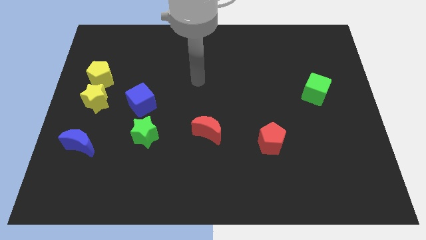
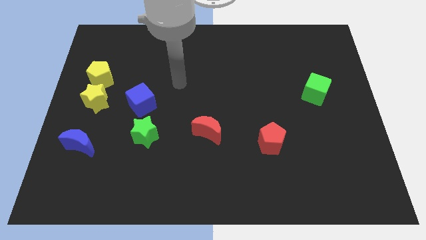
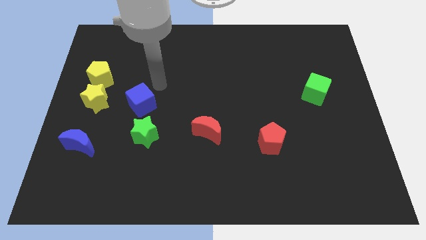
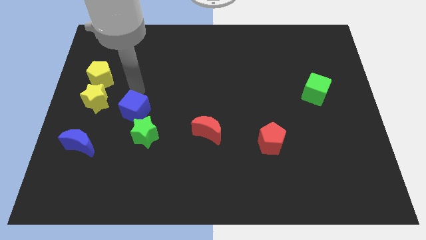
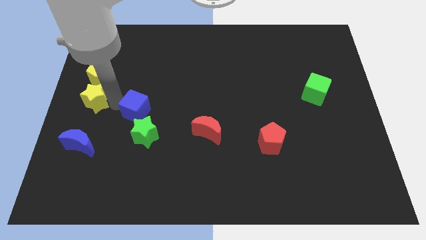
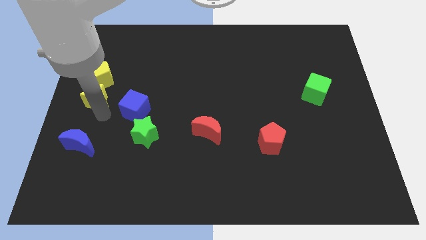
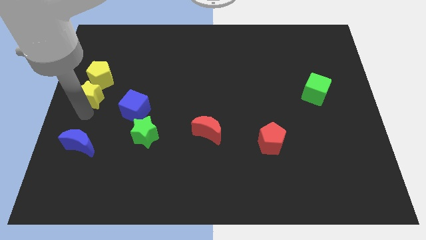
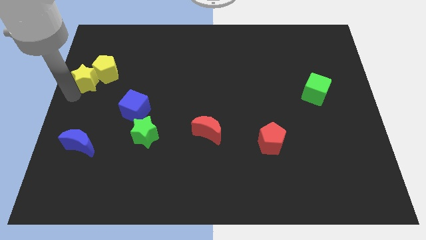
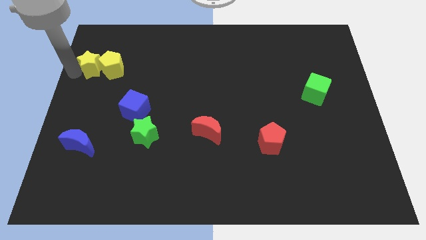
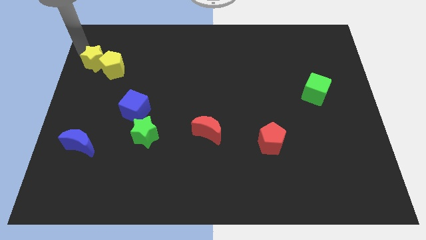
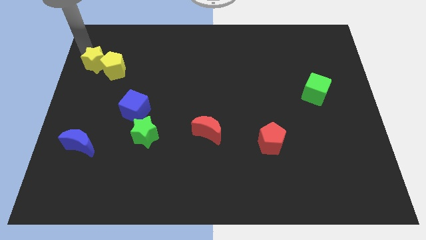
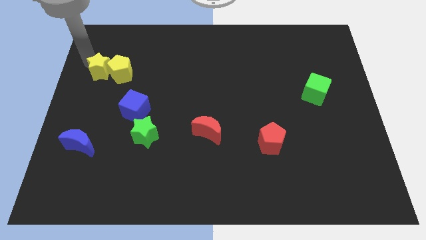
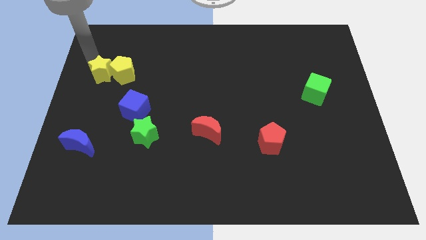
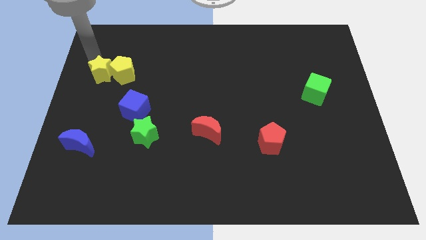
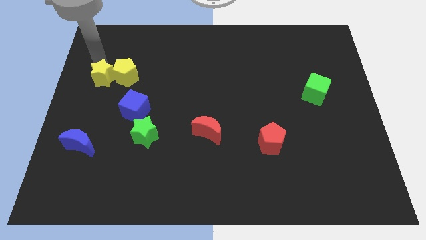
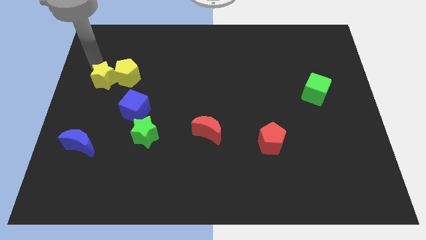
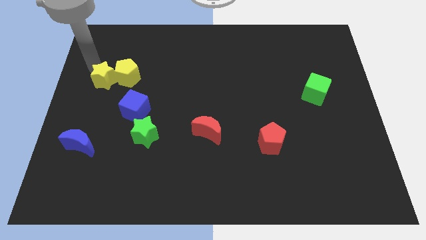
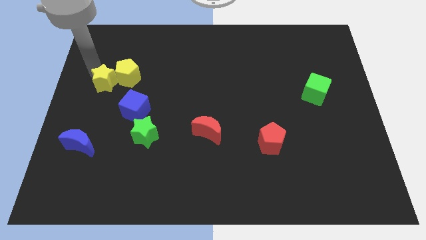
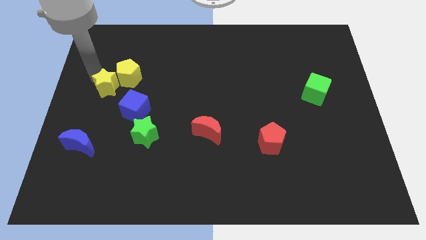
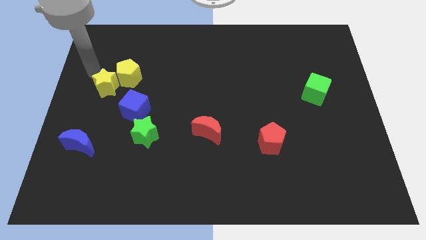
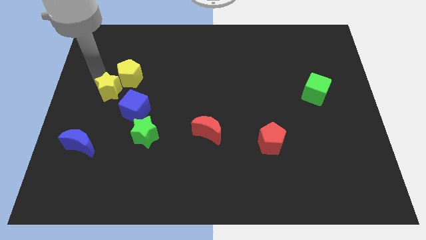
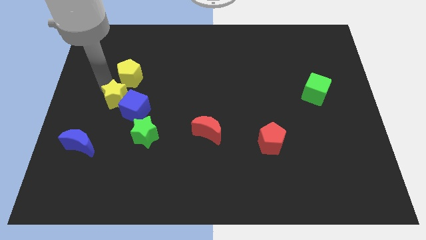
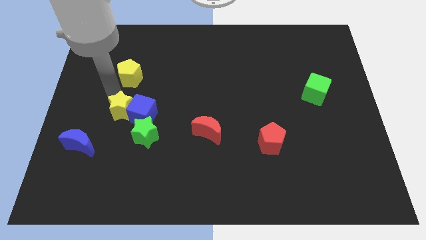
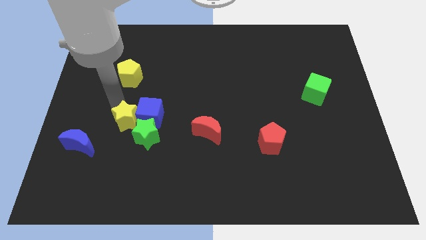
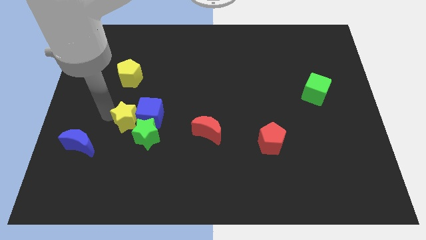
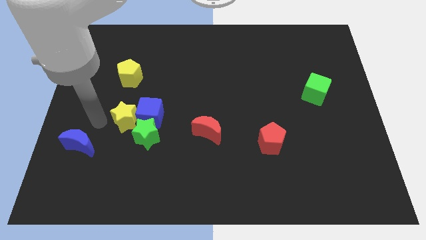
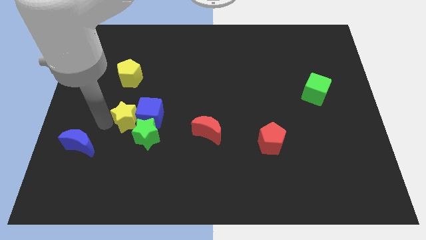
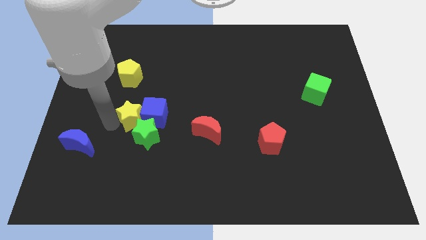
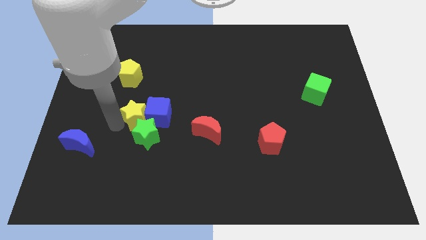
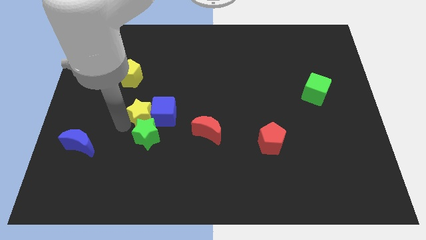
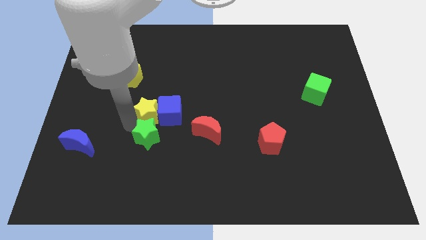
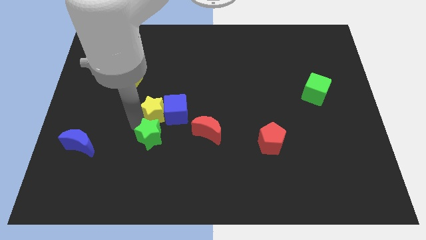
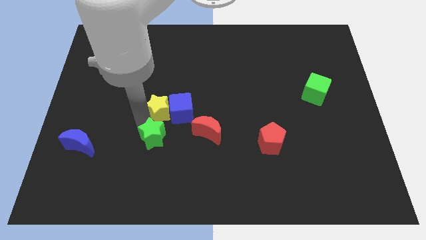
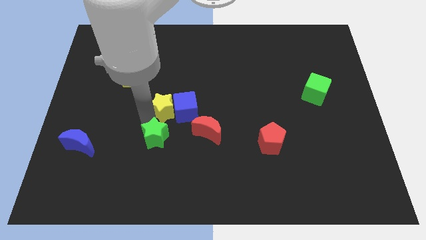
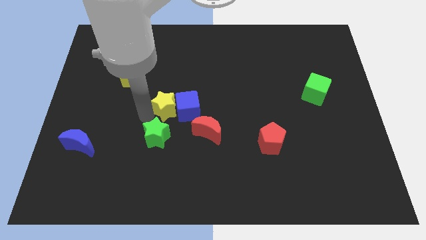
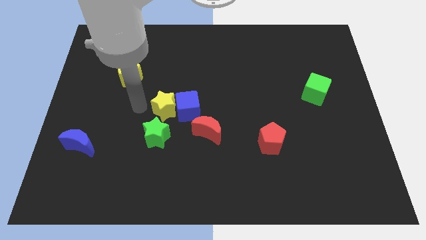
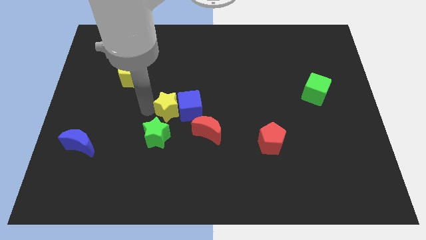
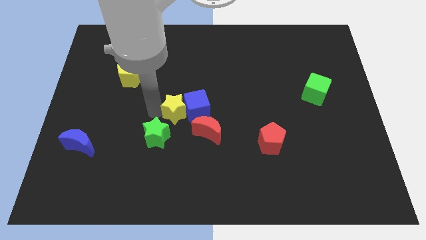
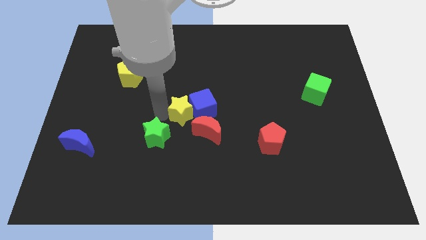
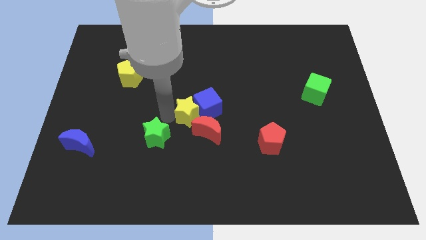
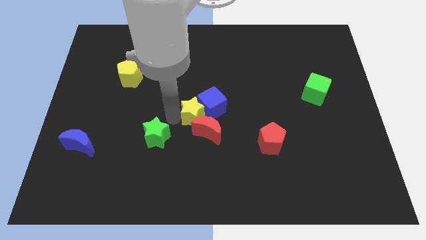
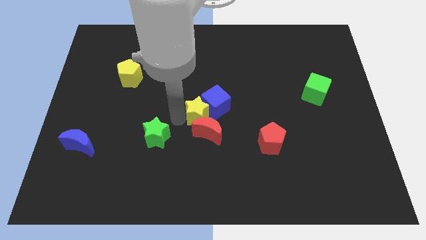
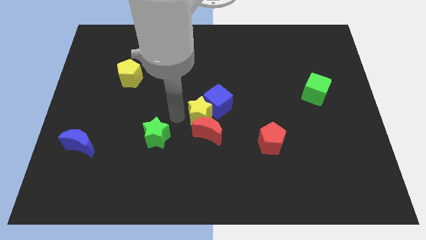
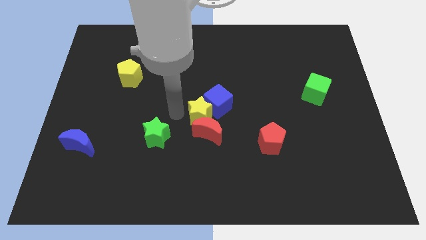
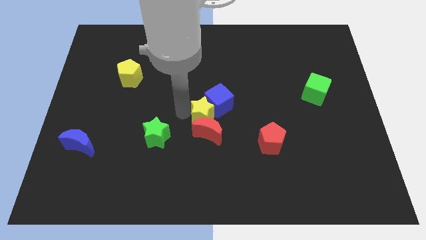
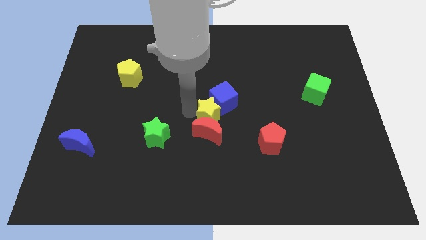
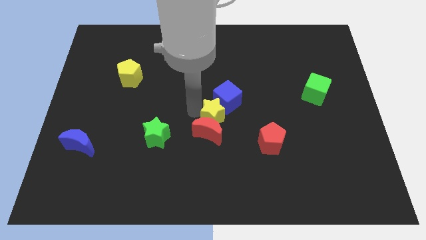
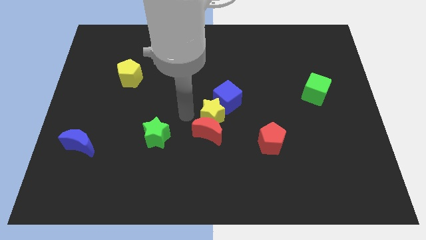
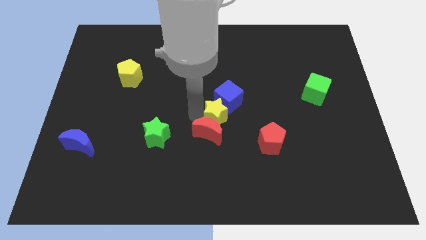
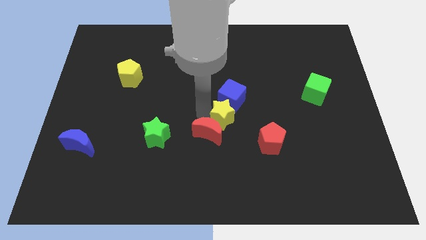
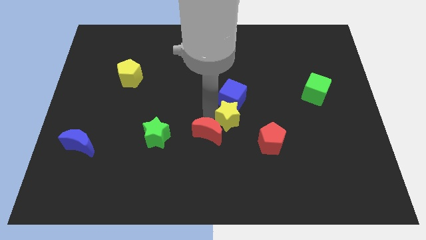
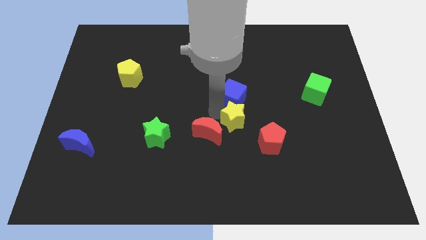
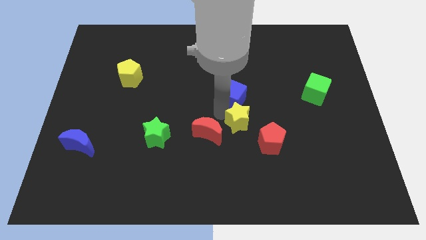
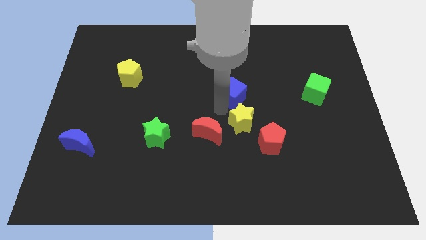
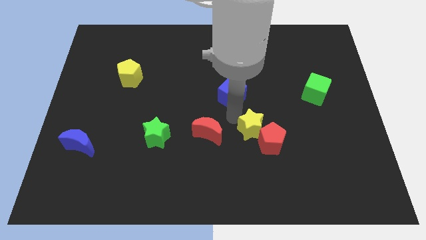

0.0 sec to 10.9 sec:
slide the yellow star to the red pentagon

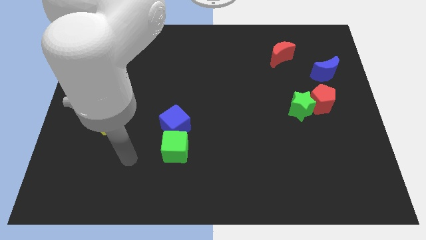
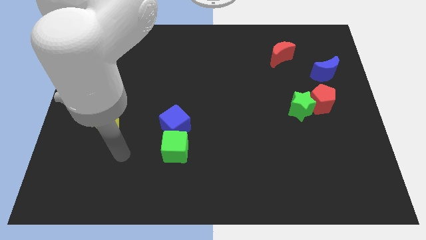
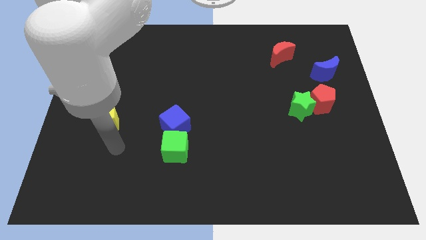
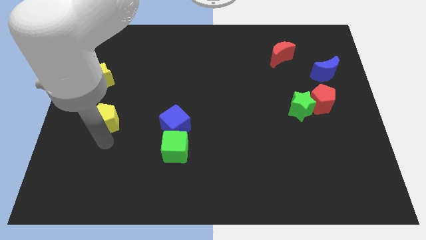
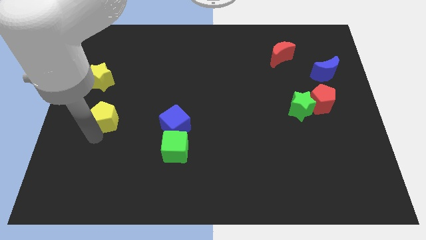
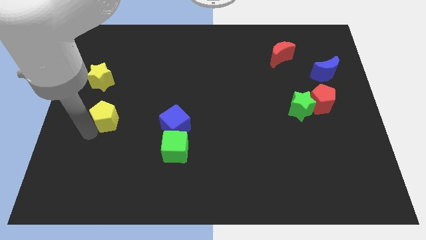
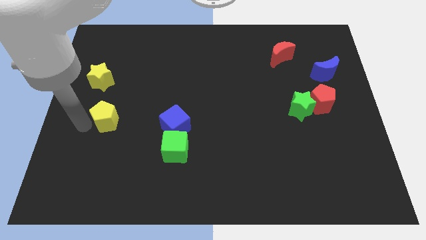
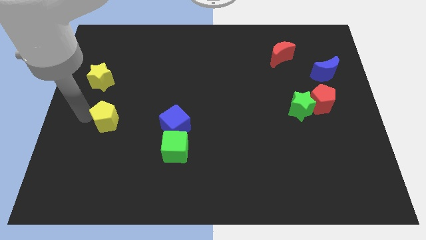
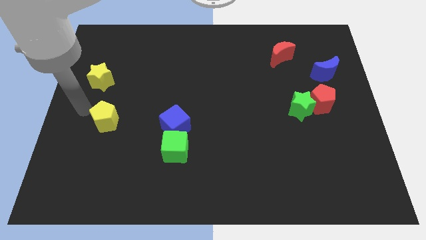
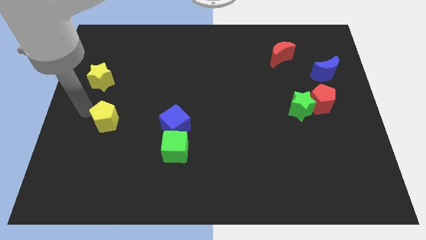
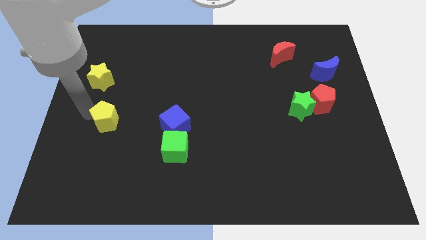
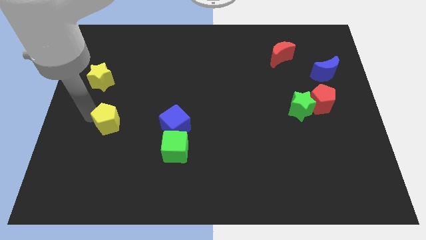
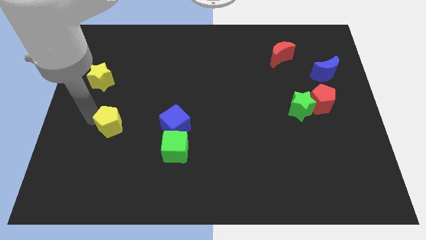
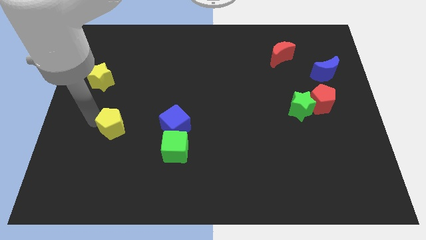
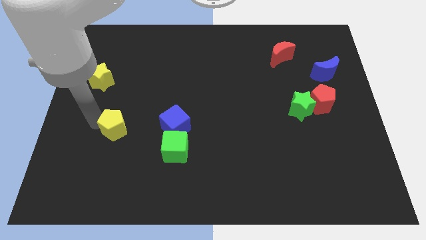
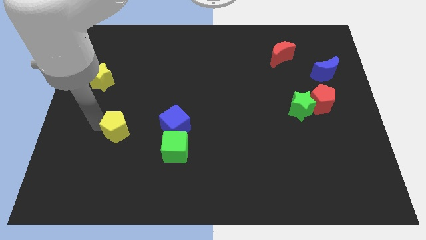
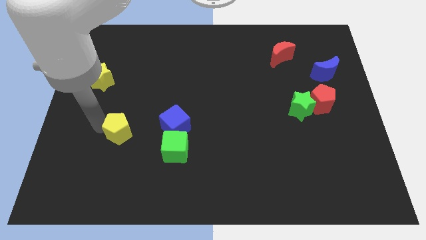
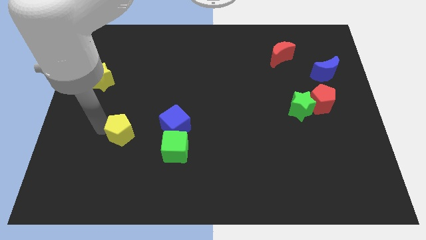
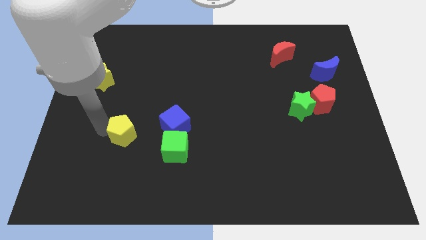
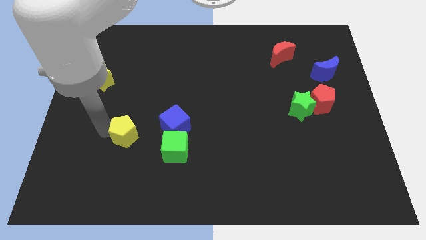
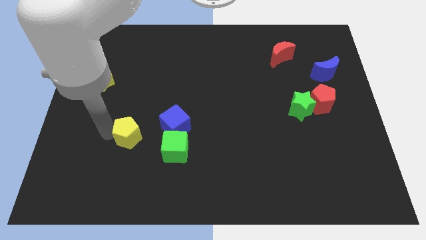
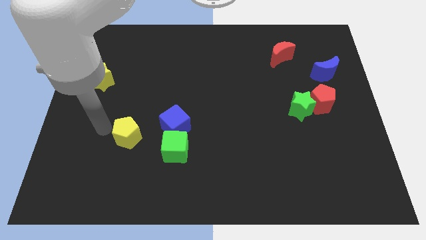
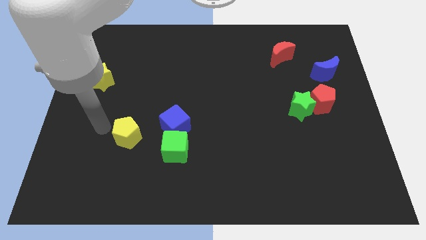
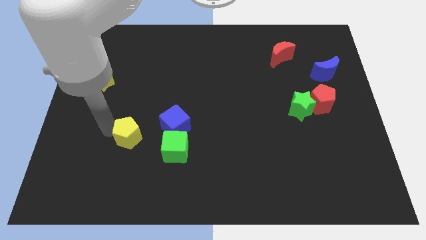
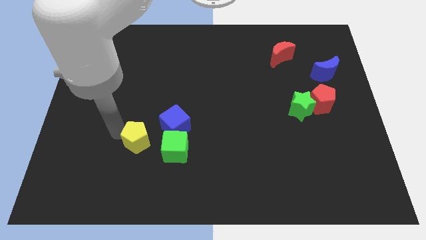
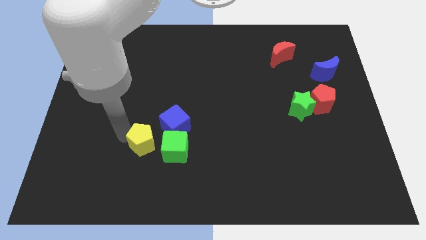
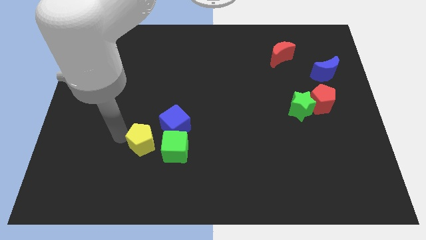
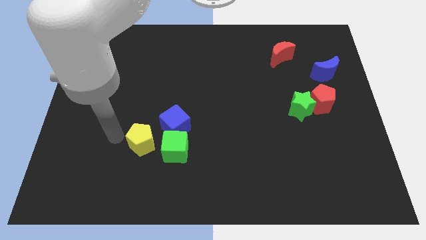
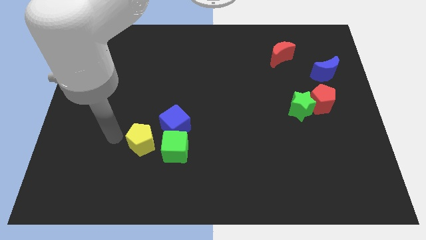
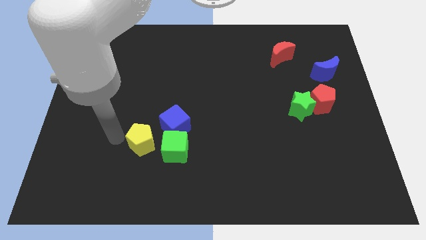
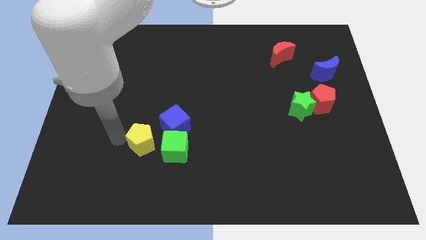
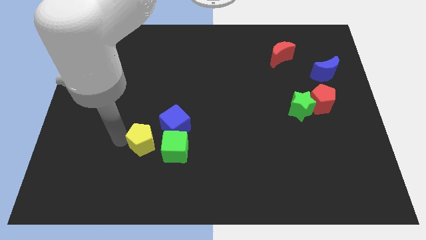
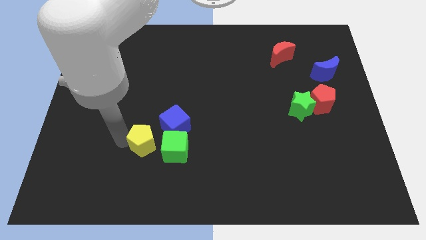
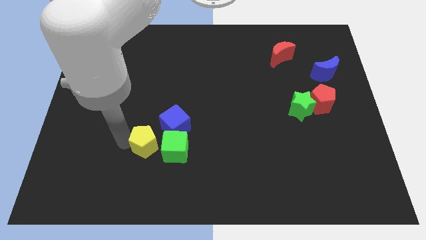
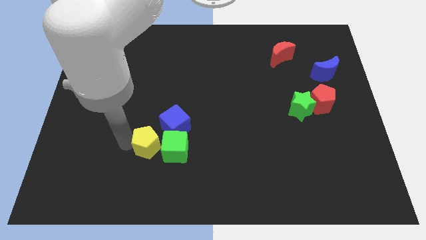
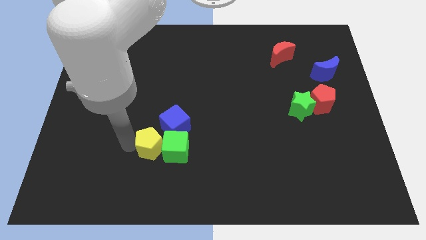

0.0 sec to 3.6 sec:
put the yellow pentagon next to the green cube
